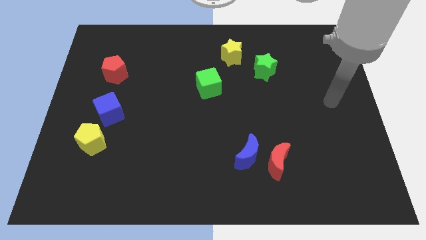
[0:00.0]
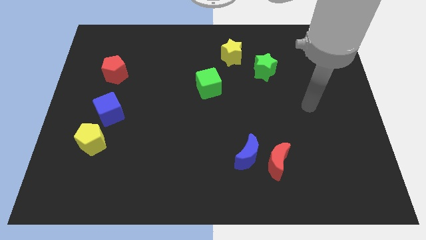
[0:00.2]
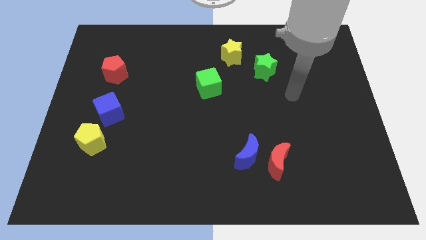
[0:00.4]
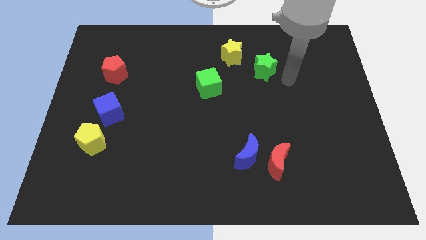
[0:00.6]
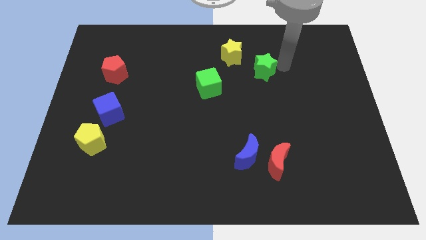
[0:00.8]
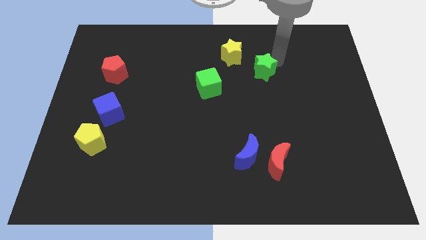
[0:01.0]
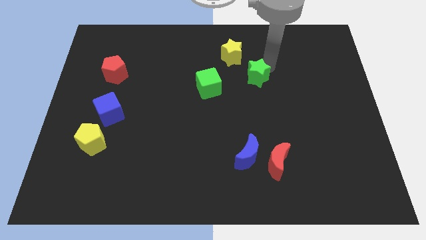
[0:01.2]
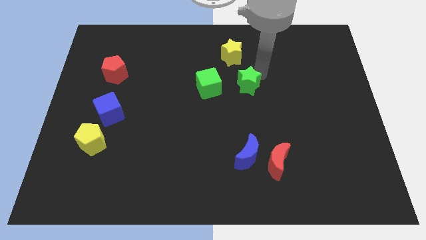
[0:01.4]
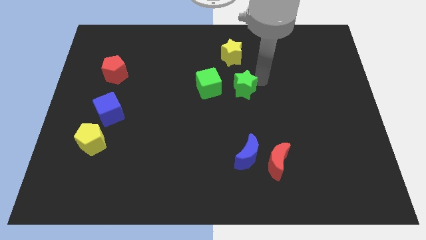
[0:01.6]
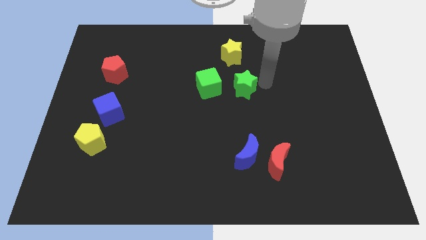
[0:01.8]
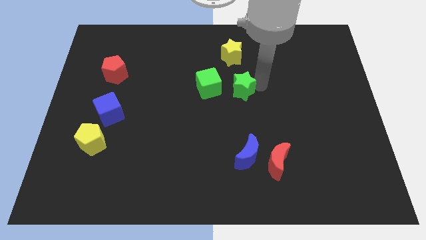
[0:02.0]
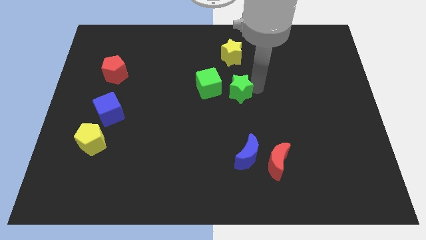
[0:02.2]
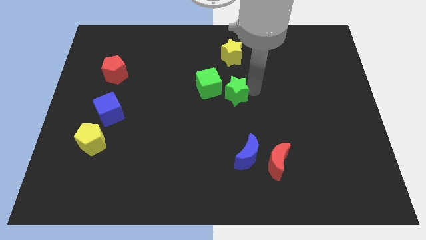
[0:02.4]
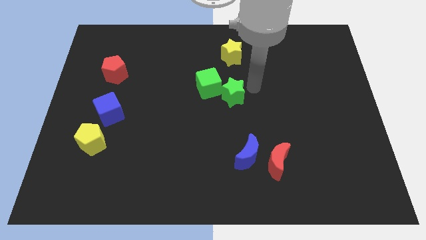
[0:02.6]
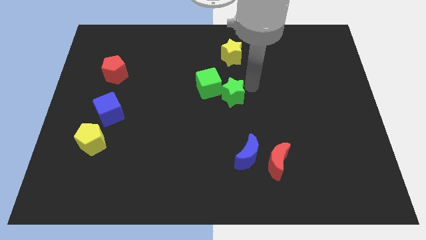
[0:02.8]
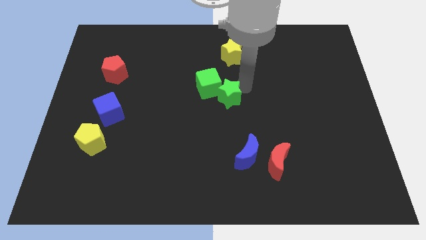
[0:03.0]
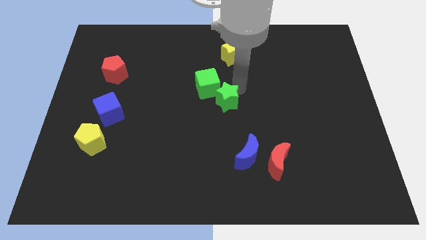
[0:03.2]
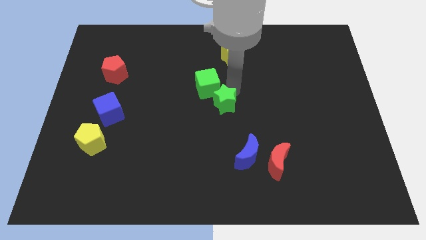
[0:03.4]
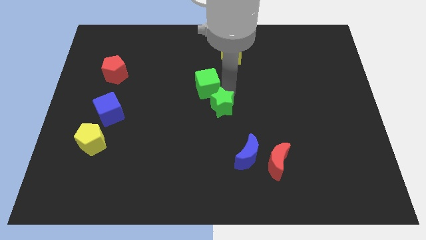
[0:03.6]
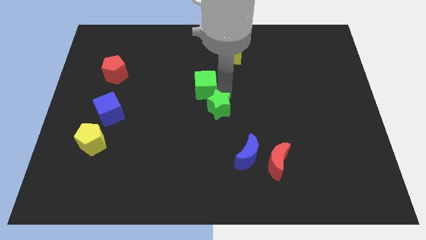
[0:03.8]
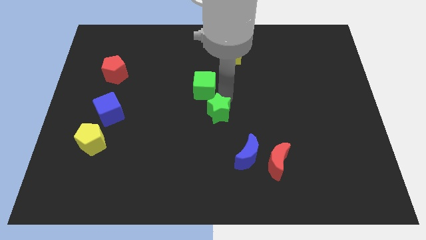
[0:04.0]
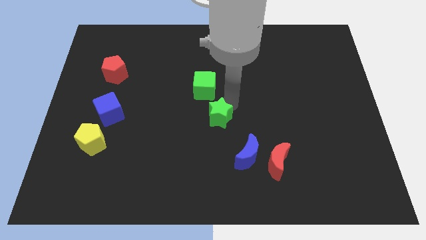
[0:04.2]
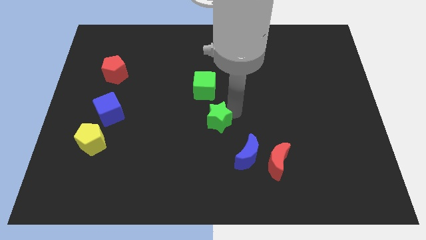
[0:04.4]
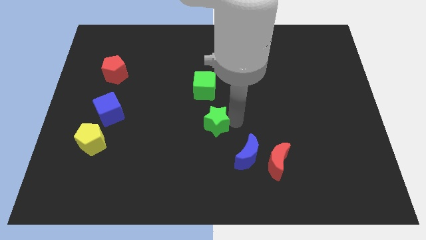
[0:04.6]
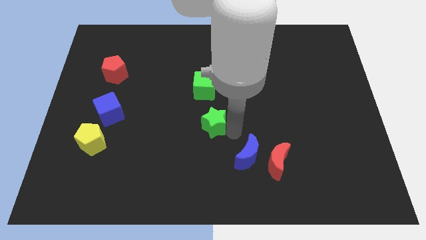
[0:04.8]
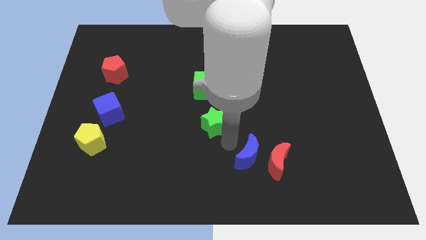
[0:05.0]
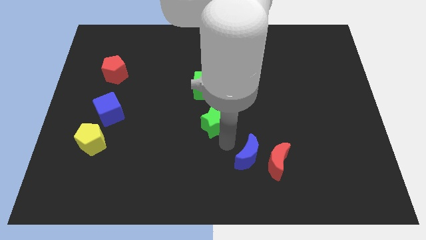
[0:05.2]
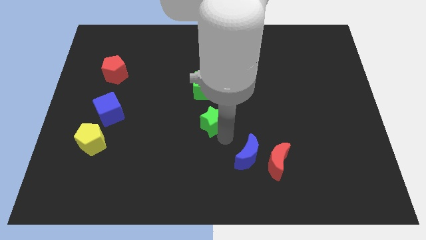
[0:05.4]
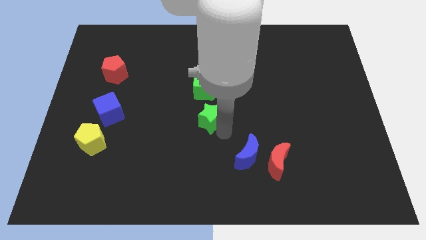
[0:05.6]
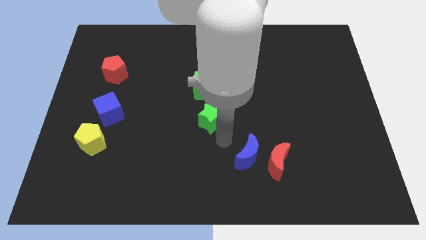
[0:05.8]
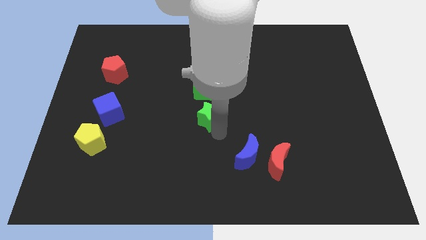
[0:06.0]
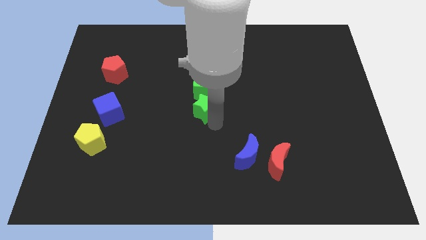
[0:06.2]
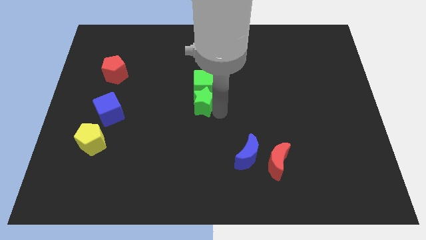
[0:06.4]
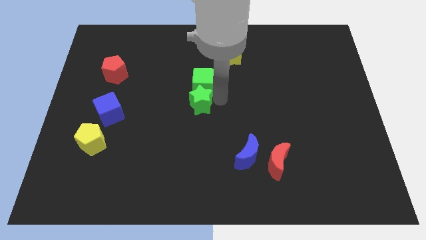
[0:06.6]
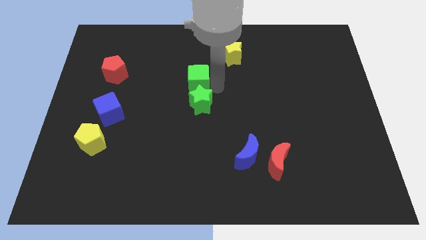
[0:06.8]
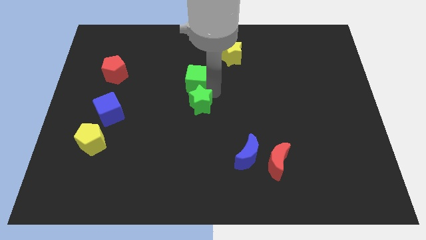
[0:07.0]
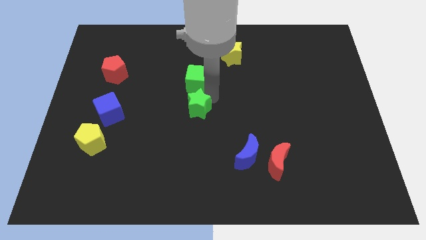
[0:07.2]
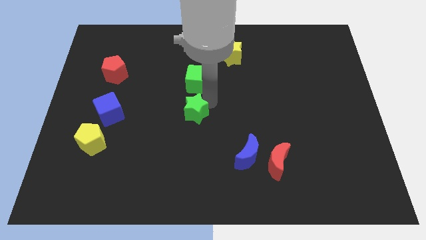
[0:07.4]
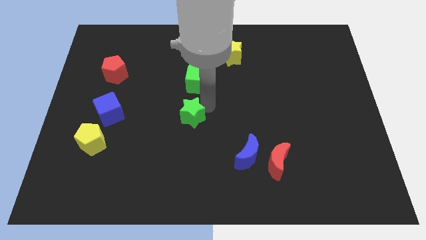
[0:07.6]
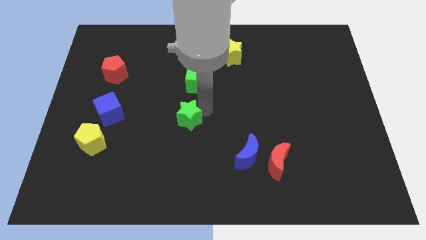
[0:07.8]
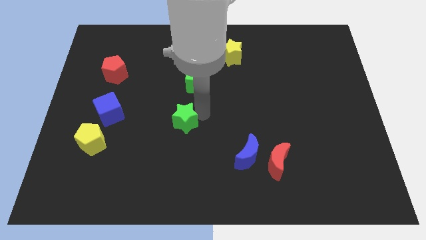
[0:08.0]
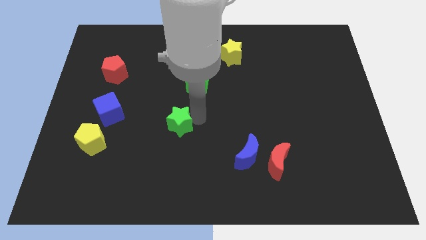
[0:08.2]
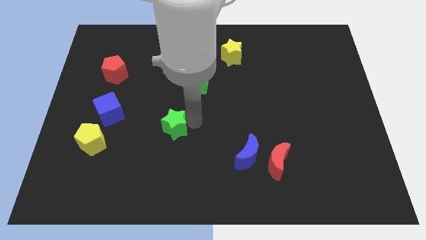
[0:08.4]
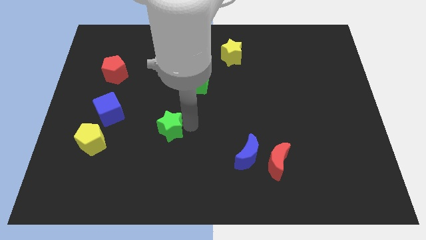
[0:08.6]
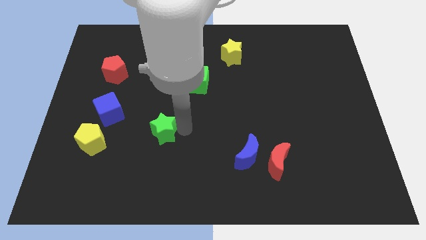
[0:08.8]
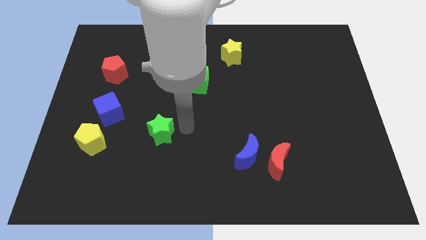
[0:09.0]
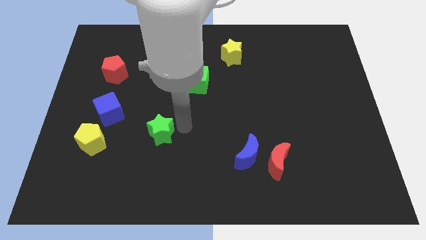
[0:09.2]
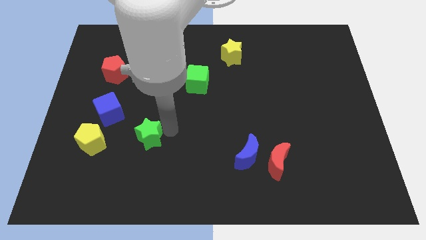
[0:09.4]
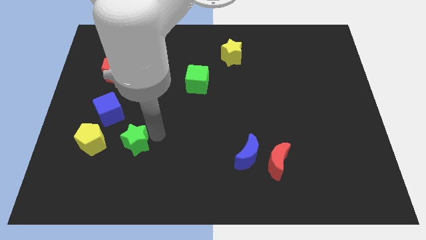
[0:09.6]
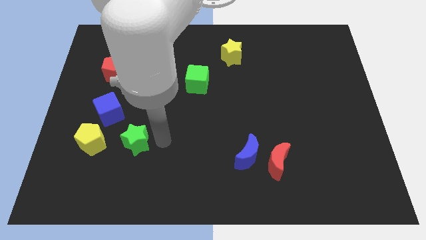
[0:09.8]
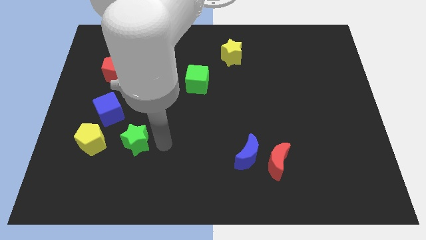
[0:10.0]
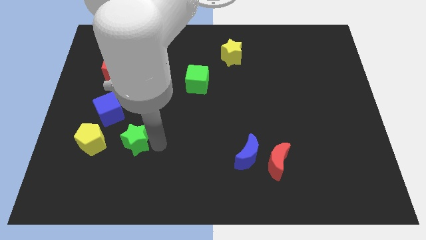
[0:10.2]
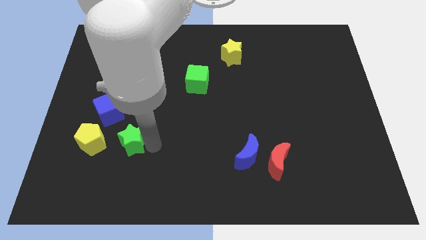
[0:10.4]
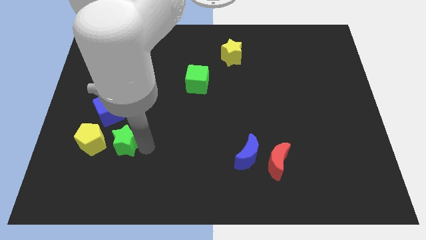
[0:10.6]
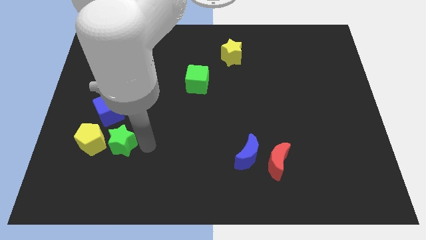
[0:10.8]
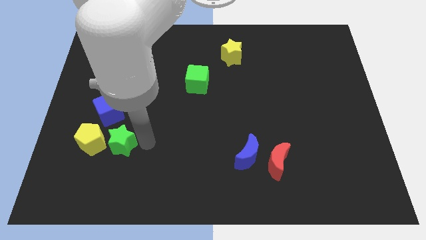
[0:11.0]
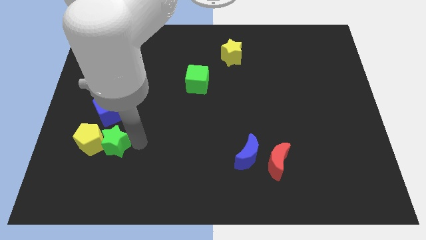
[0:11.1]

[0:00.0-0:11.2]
slide the green star close to the yellow pentagon

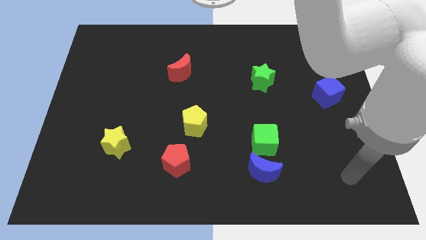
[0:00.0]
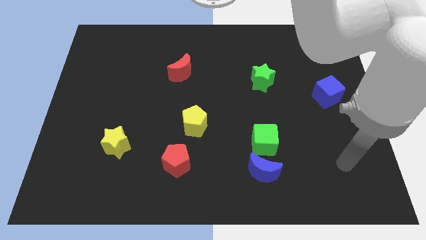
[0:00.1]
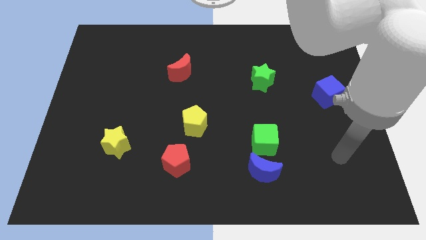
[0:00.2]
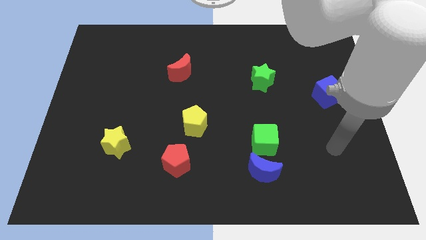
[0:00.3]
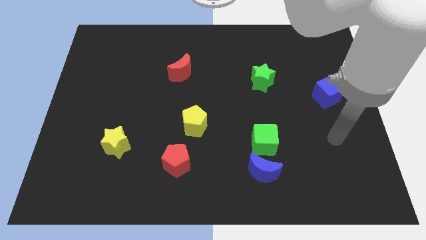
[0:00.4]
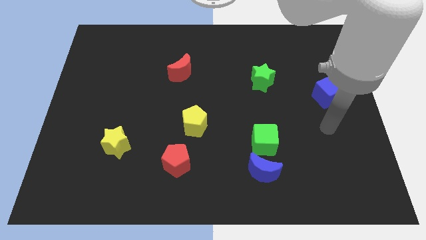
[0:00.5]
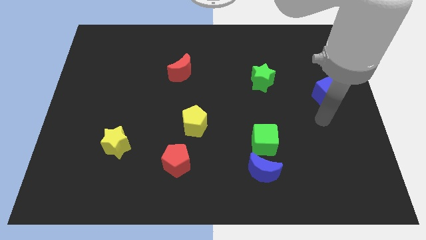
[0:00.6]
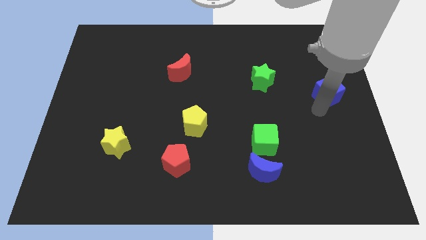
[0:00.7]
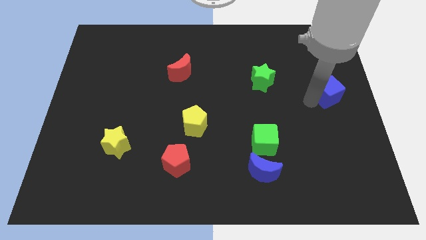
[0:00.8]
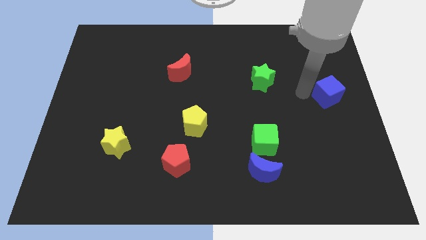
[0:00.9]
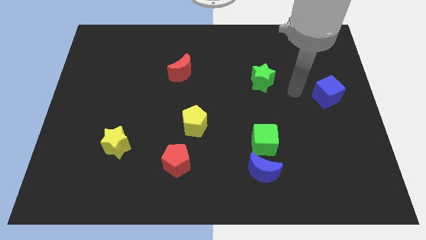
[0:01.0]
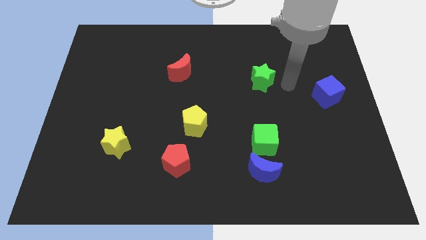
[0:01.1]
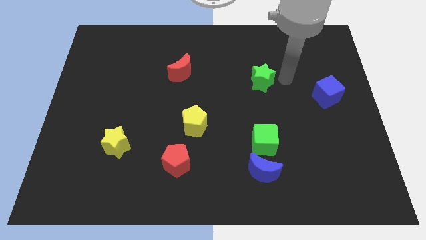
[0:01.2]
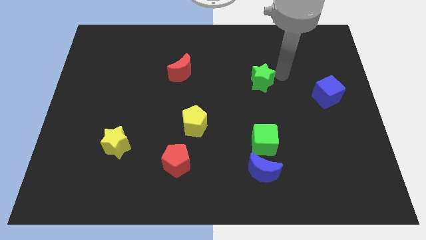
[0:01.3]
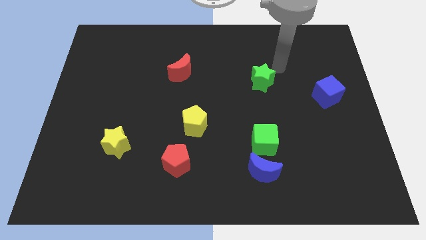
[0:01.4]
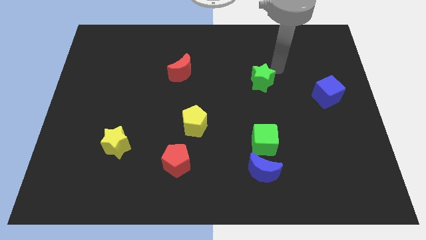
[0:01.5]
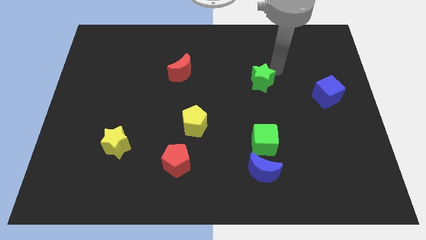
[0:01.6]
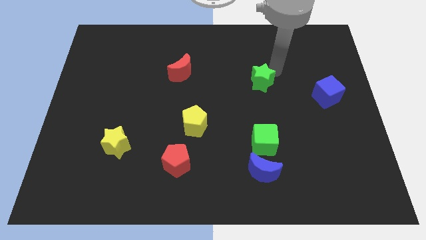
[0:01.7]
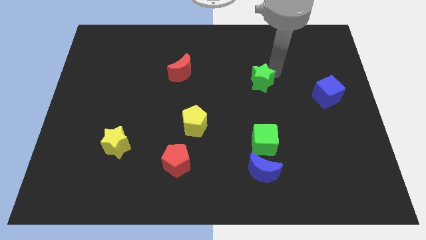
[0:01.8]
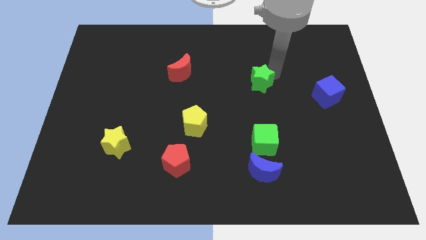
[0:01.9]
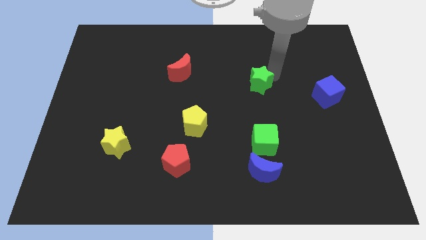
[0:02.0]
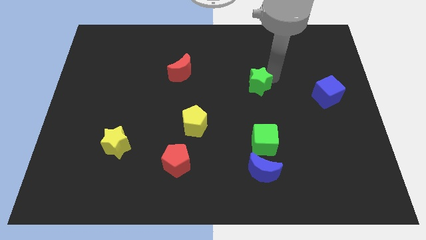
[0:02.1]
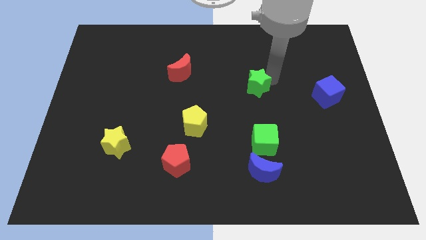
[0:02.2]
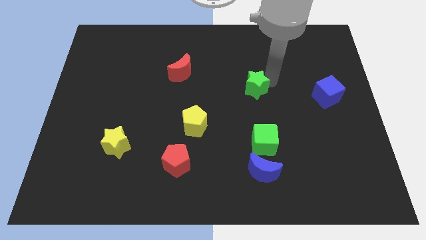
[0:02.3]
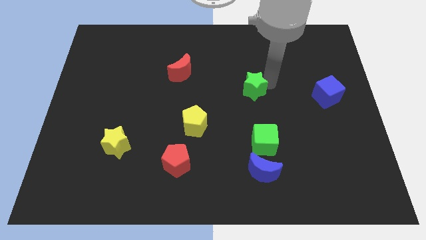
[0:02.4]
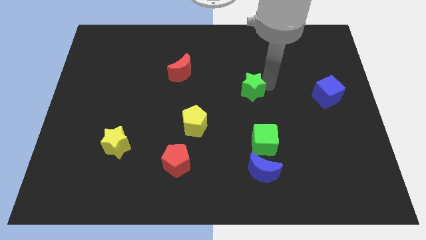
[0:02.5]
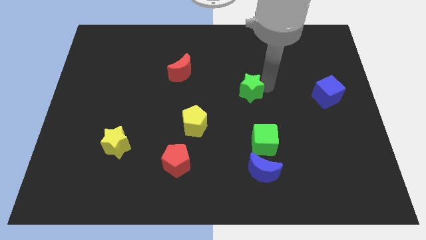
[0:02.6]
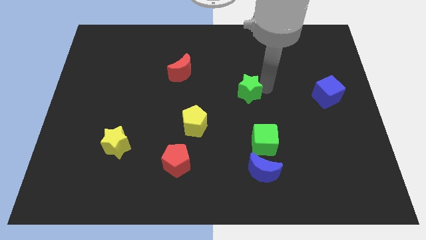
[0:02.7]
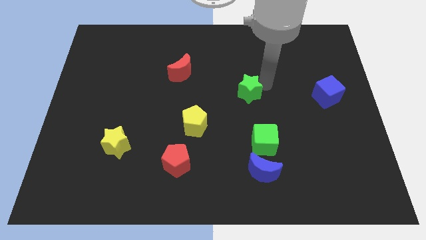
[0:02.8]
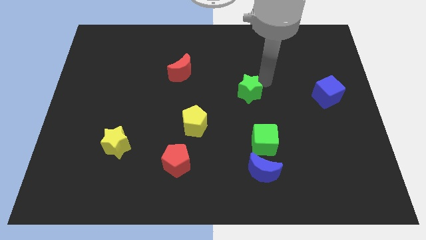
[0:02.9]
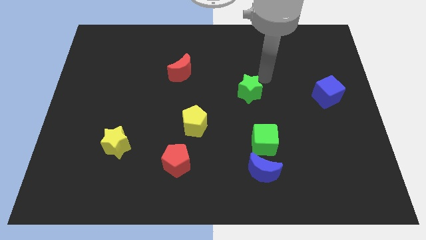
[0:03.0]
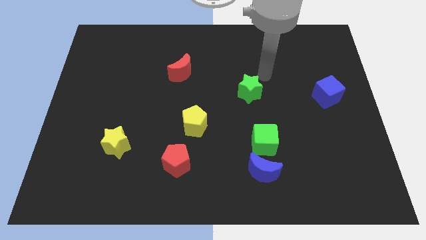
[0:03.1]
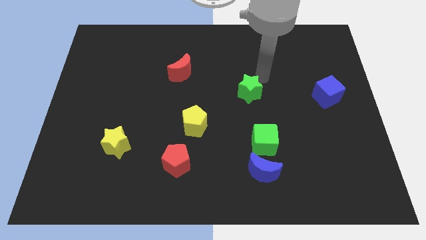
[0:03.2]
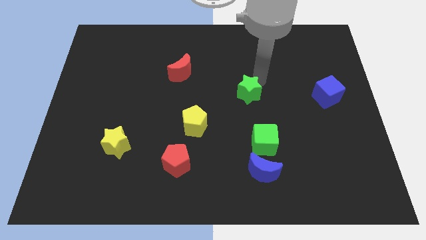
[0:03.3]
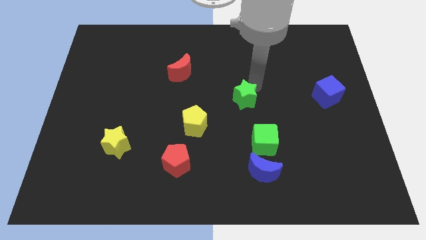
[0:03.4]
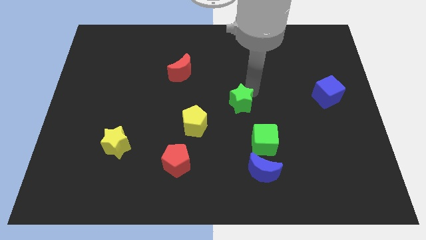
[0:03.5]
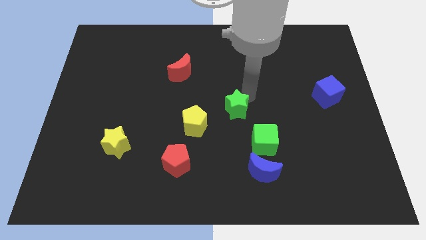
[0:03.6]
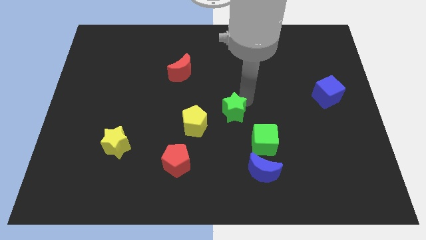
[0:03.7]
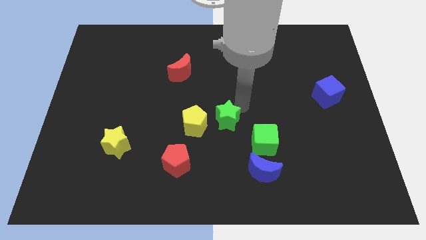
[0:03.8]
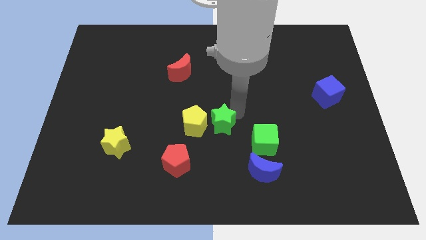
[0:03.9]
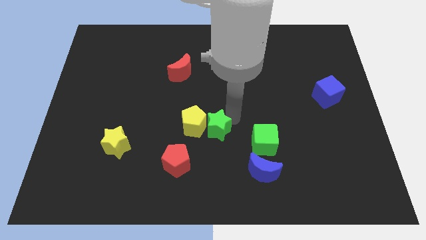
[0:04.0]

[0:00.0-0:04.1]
move the green star next to the yellow pentagon
